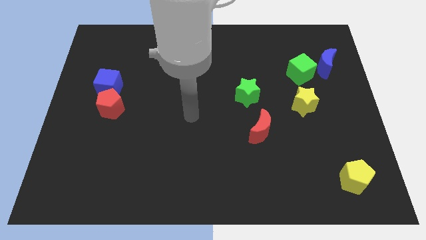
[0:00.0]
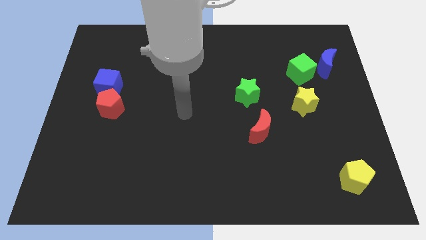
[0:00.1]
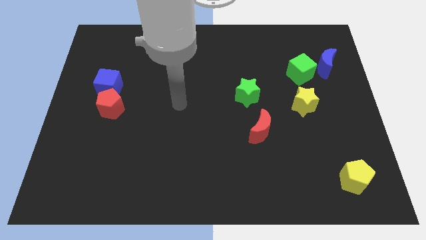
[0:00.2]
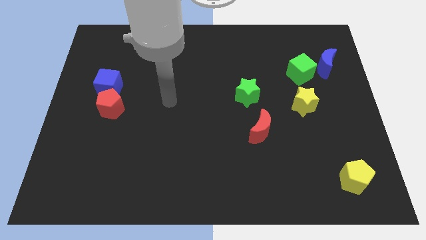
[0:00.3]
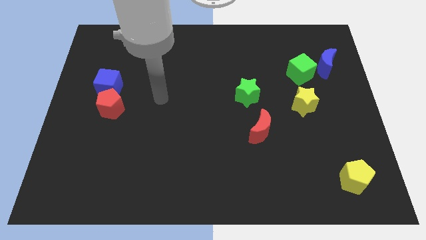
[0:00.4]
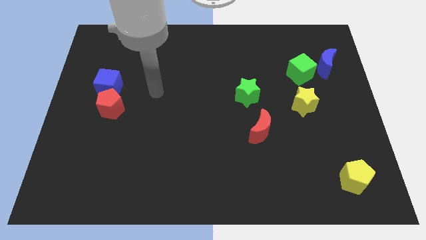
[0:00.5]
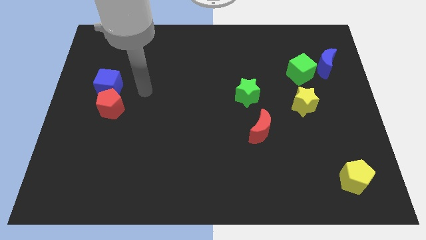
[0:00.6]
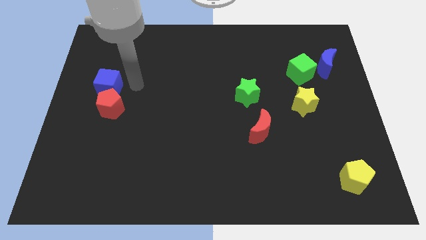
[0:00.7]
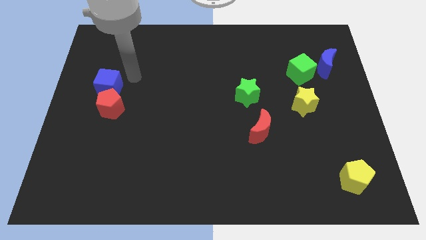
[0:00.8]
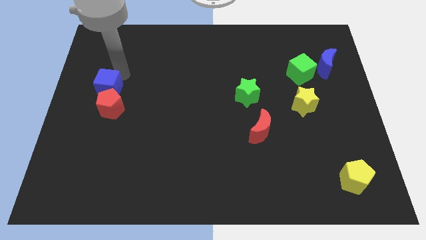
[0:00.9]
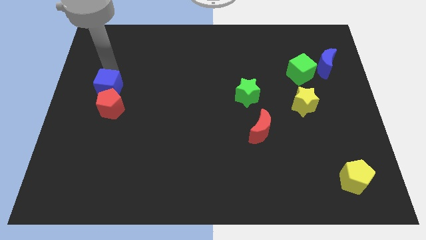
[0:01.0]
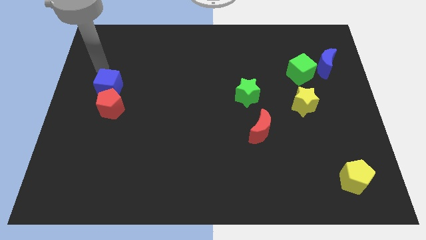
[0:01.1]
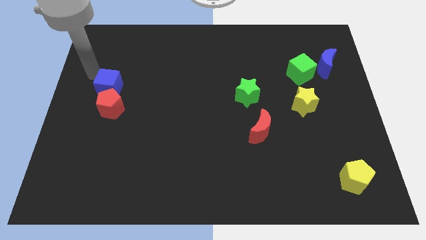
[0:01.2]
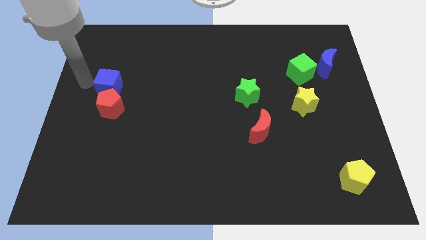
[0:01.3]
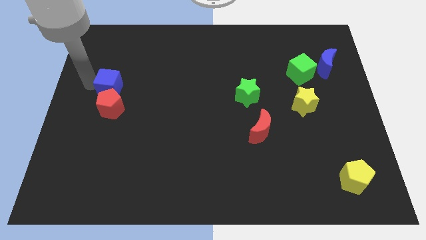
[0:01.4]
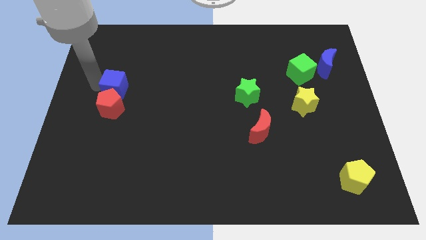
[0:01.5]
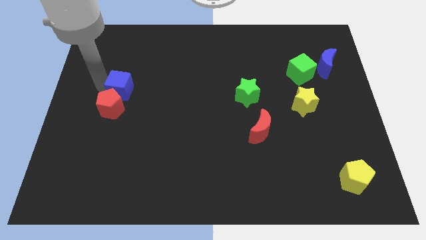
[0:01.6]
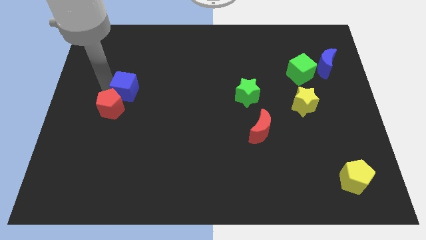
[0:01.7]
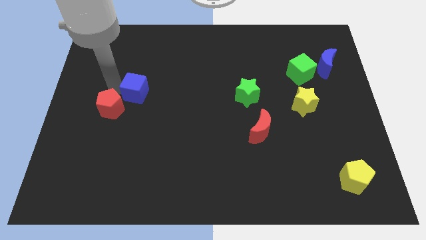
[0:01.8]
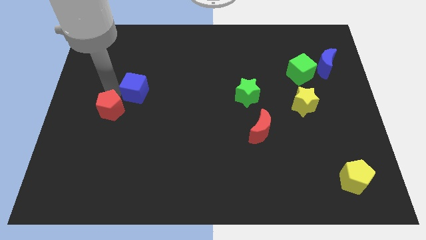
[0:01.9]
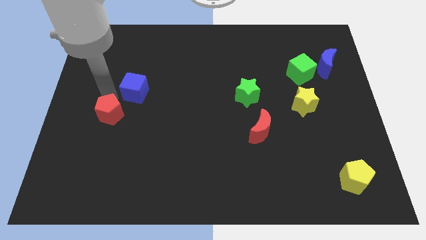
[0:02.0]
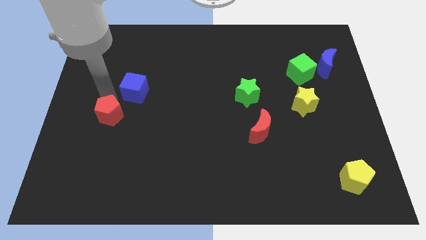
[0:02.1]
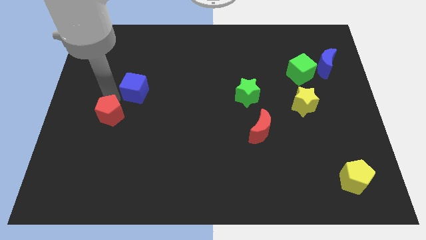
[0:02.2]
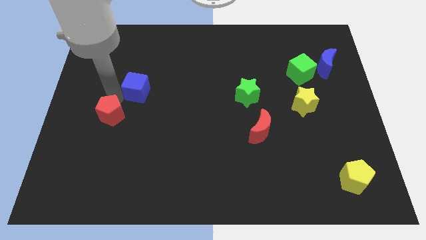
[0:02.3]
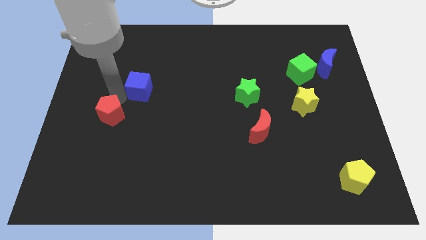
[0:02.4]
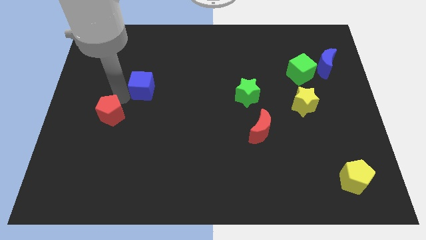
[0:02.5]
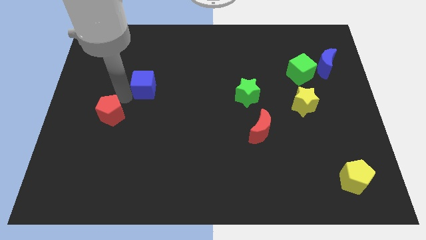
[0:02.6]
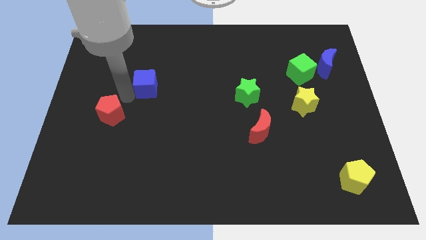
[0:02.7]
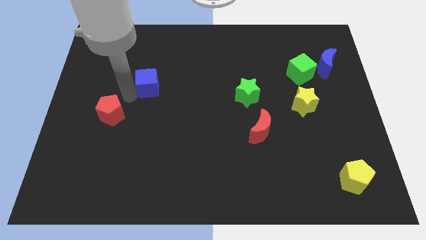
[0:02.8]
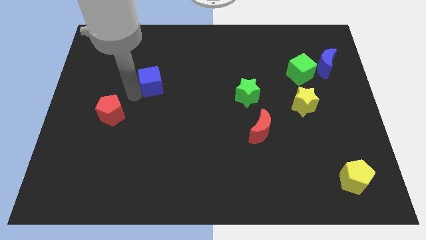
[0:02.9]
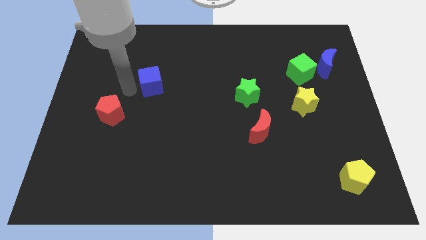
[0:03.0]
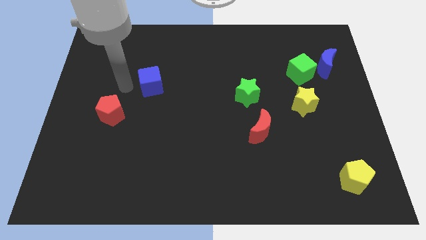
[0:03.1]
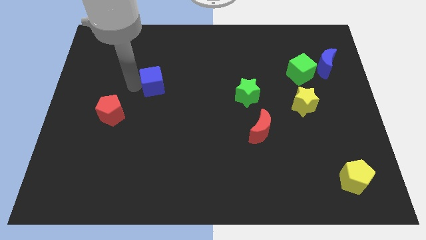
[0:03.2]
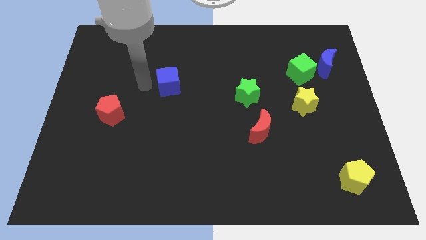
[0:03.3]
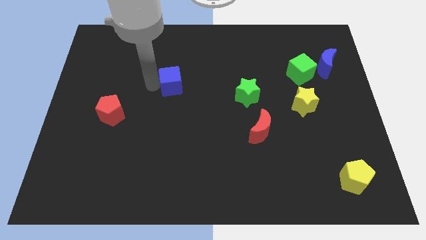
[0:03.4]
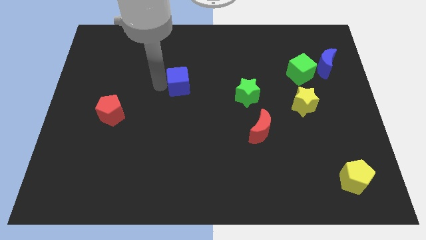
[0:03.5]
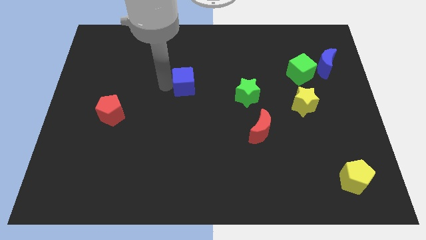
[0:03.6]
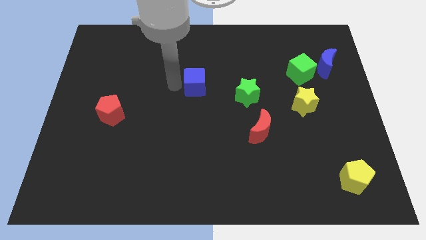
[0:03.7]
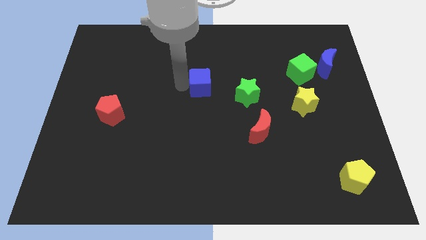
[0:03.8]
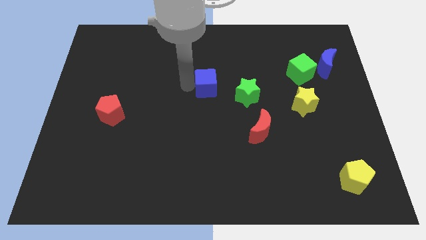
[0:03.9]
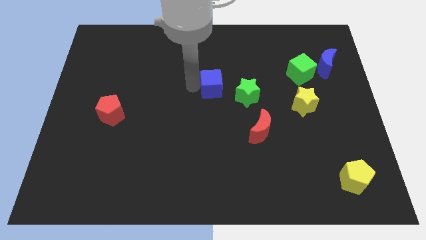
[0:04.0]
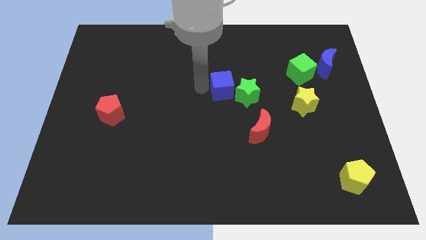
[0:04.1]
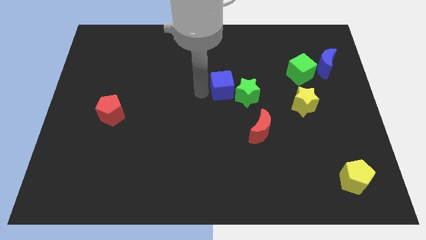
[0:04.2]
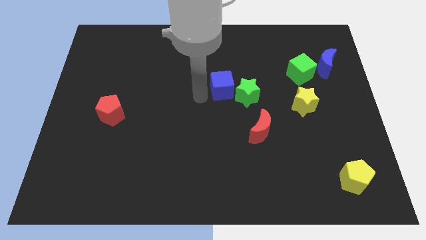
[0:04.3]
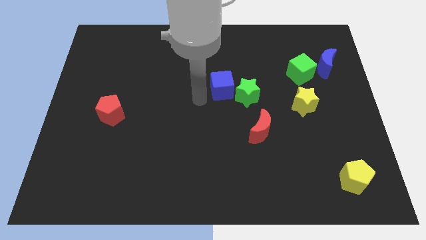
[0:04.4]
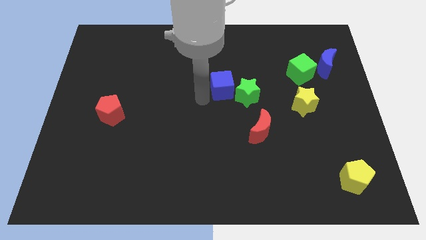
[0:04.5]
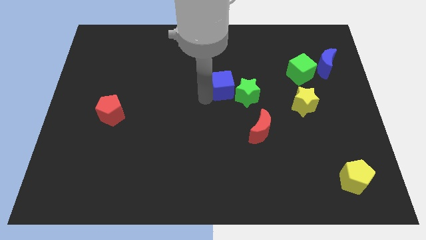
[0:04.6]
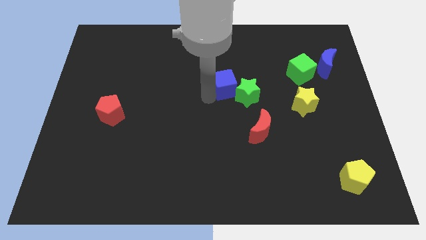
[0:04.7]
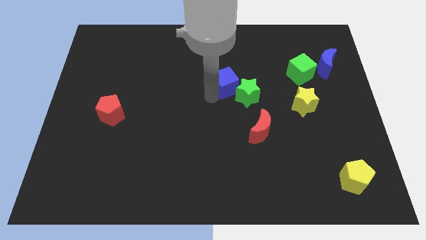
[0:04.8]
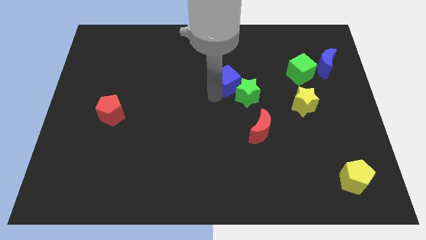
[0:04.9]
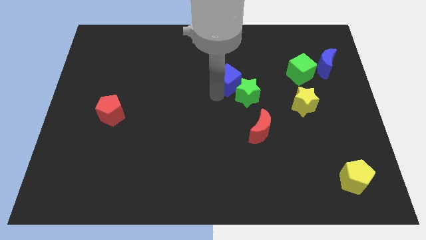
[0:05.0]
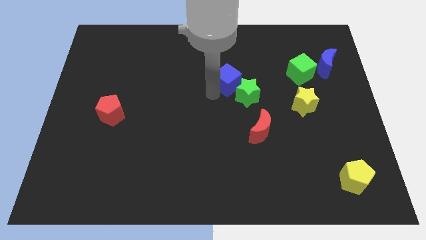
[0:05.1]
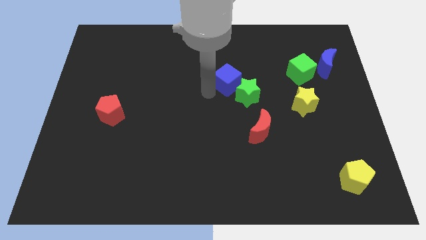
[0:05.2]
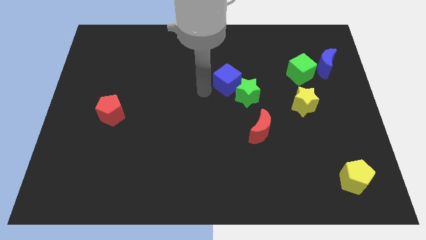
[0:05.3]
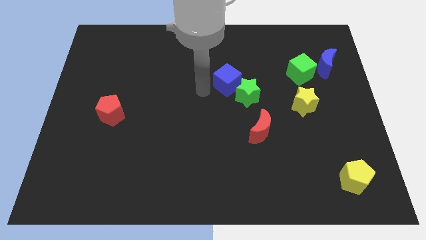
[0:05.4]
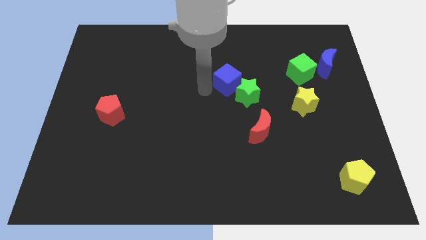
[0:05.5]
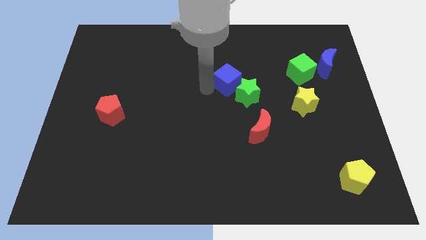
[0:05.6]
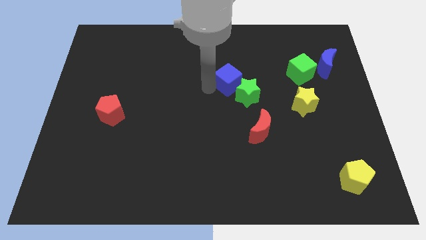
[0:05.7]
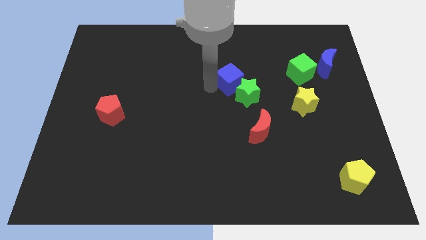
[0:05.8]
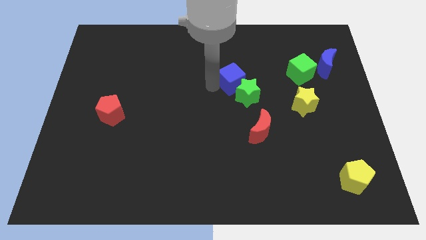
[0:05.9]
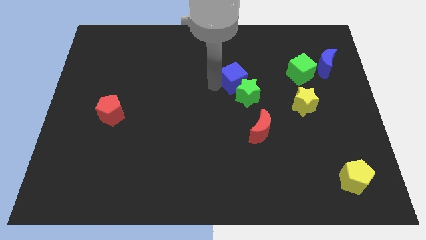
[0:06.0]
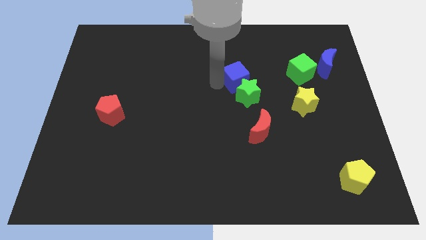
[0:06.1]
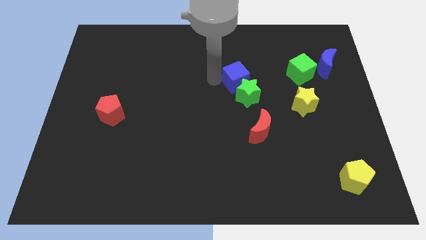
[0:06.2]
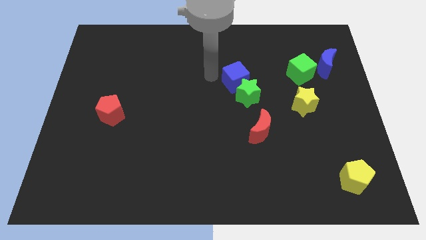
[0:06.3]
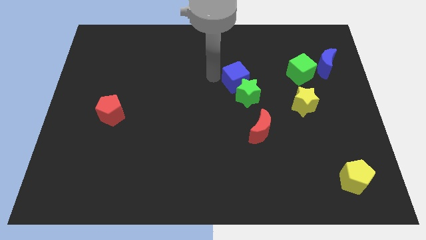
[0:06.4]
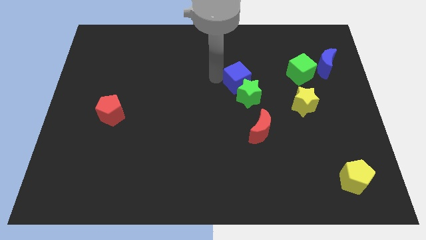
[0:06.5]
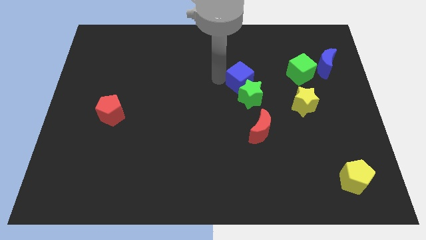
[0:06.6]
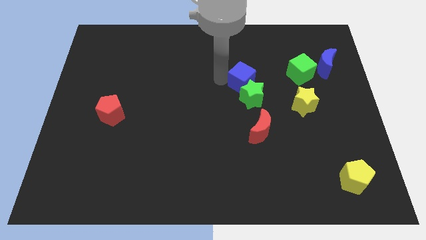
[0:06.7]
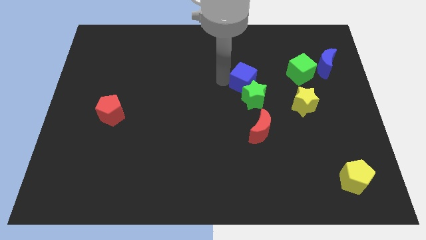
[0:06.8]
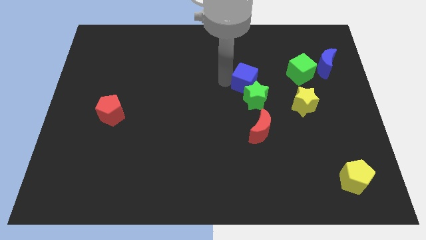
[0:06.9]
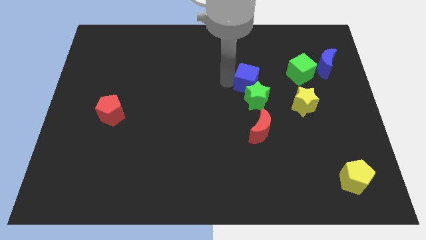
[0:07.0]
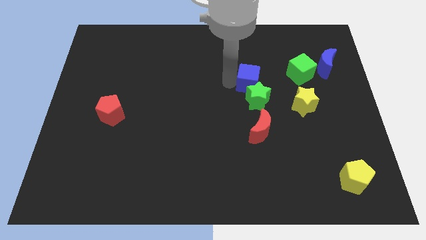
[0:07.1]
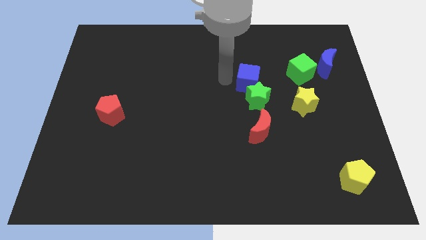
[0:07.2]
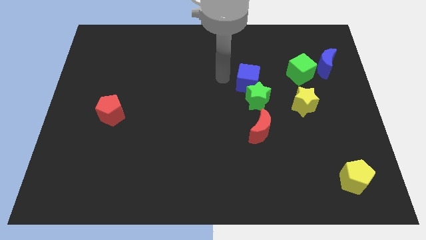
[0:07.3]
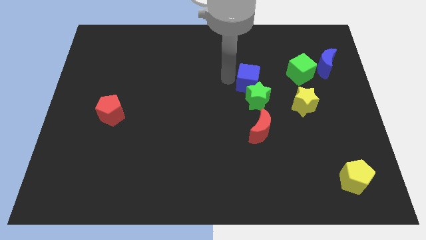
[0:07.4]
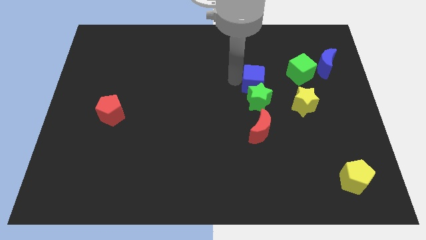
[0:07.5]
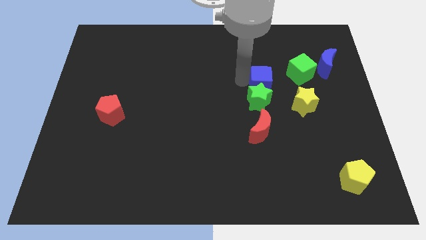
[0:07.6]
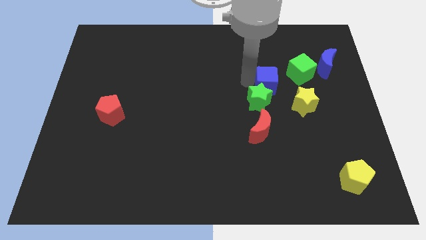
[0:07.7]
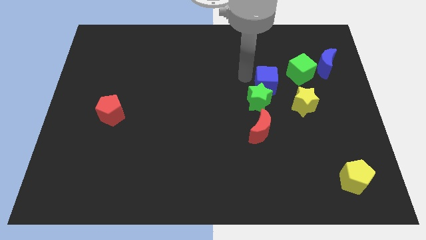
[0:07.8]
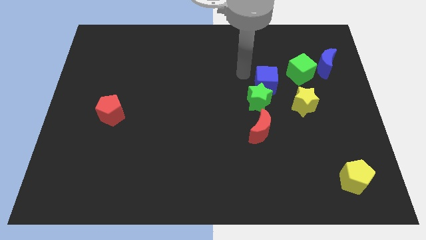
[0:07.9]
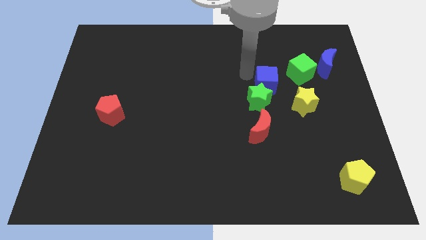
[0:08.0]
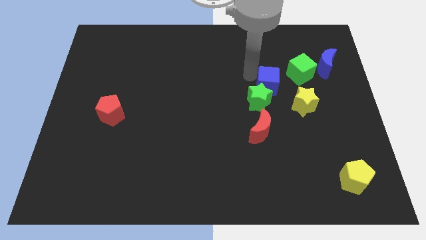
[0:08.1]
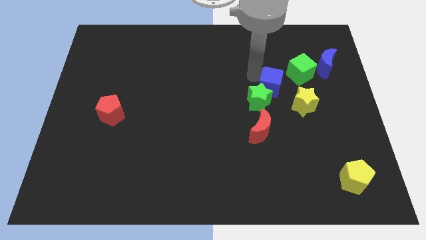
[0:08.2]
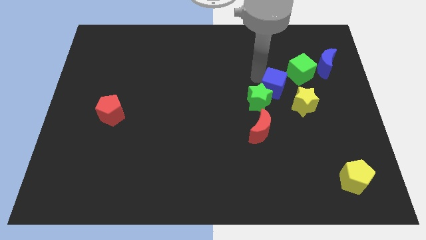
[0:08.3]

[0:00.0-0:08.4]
move the blue cube to the right of the green star
